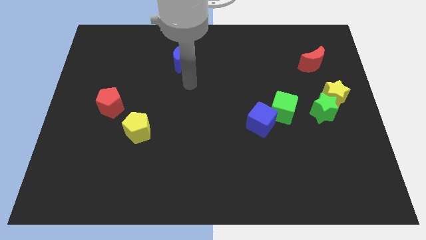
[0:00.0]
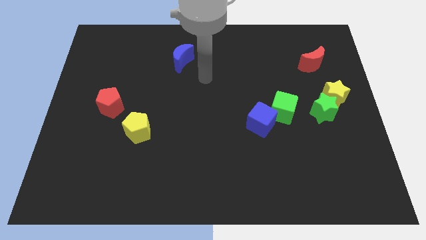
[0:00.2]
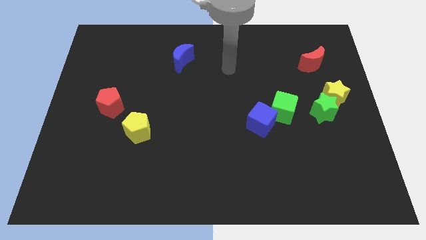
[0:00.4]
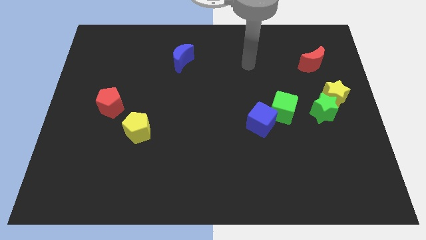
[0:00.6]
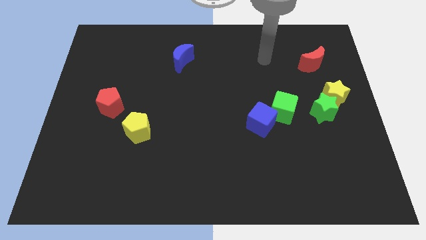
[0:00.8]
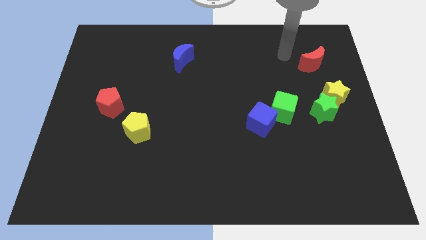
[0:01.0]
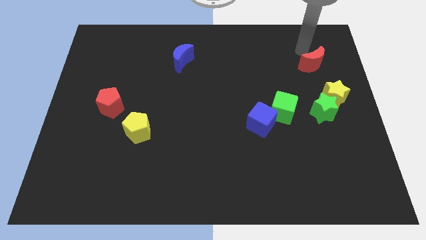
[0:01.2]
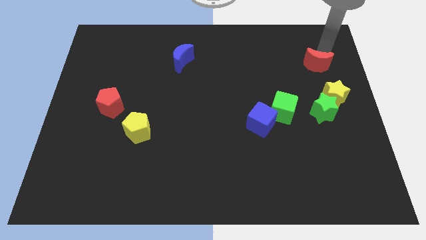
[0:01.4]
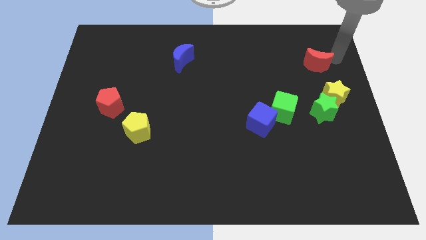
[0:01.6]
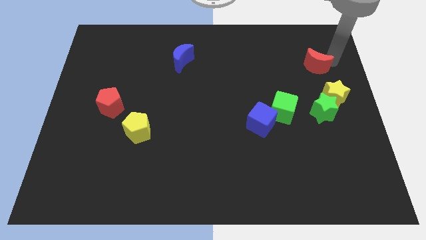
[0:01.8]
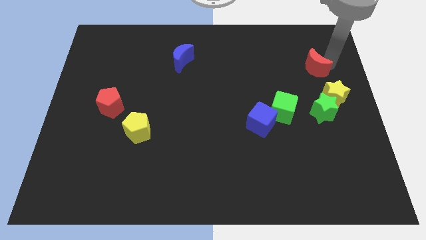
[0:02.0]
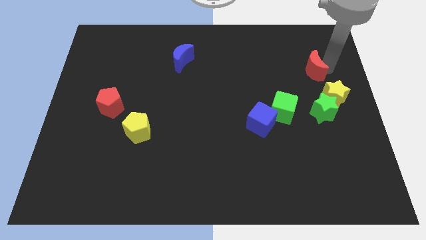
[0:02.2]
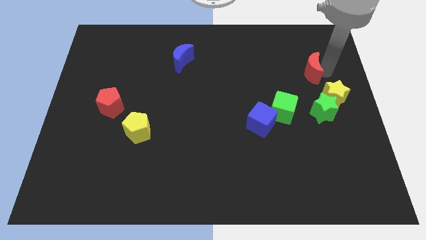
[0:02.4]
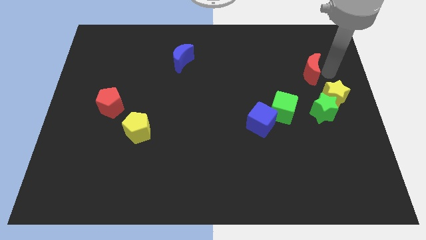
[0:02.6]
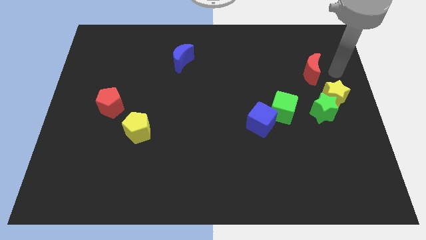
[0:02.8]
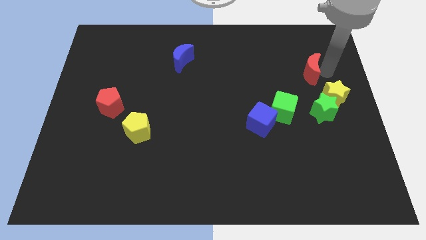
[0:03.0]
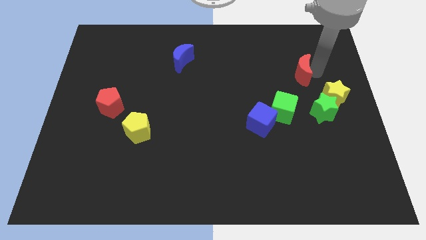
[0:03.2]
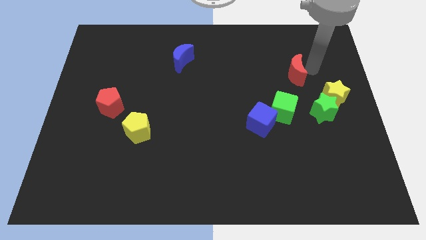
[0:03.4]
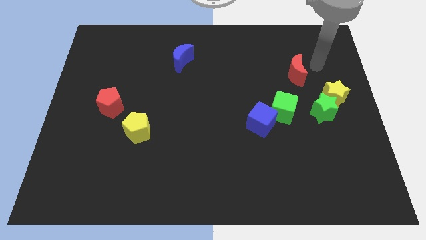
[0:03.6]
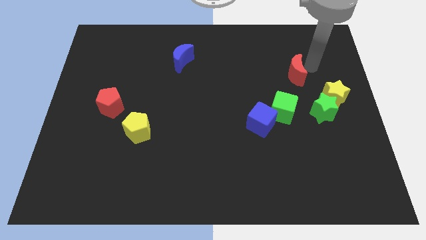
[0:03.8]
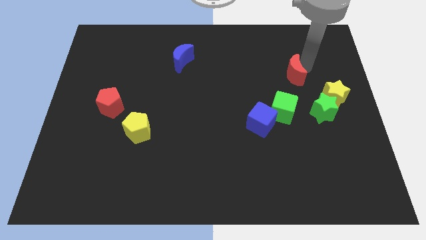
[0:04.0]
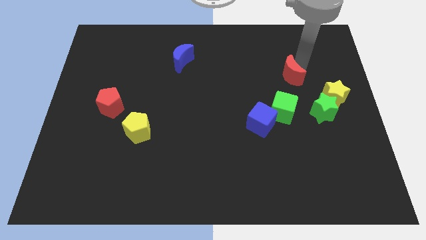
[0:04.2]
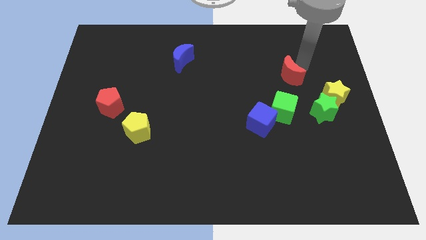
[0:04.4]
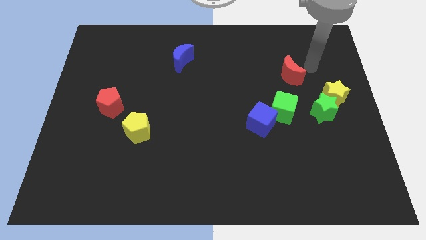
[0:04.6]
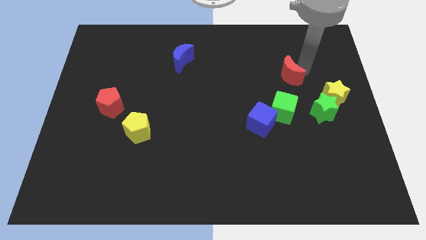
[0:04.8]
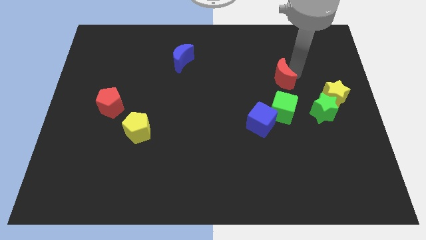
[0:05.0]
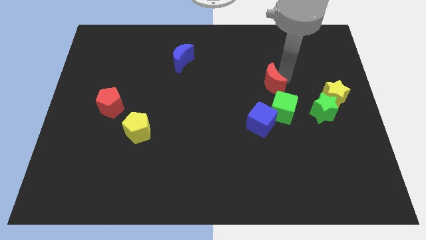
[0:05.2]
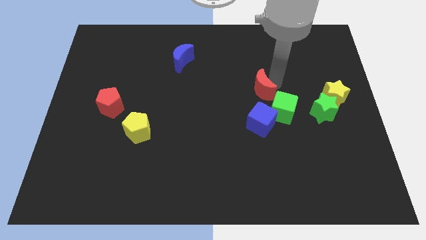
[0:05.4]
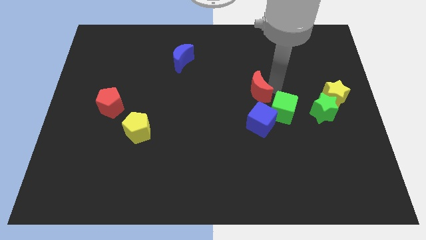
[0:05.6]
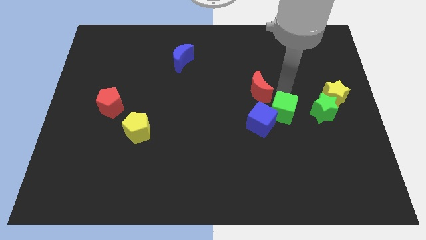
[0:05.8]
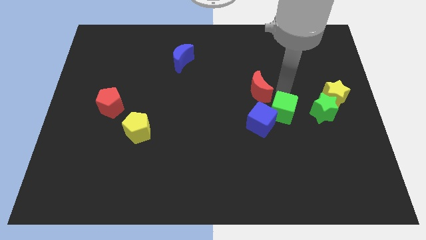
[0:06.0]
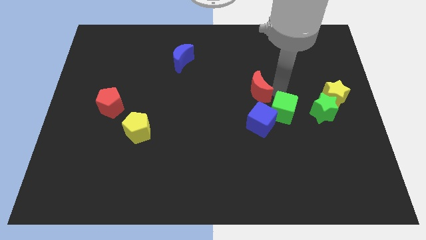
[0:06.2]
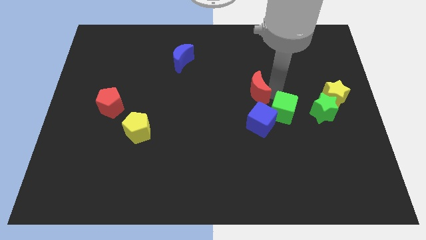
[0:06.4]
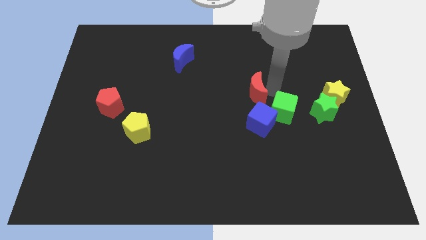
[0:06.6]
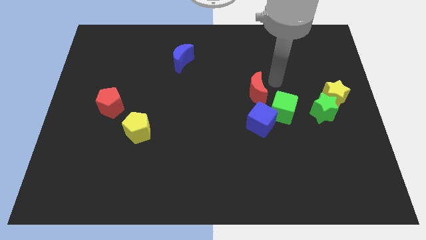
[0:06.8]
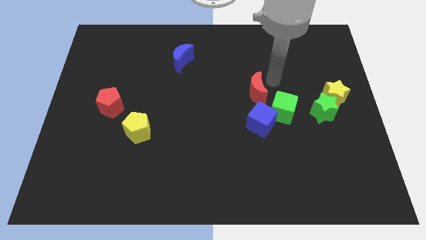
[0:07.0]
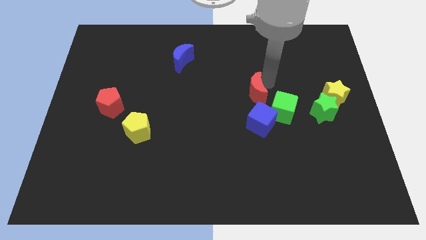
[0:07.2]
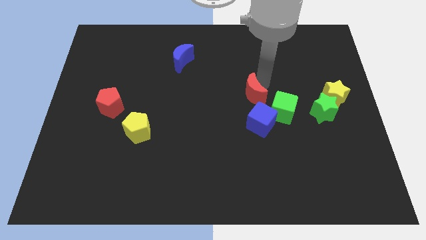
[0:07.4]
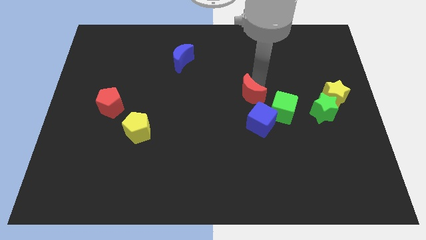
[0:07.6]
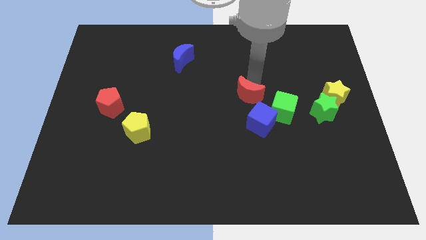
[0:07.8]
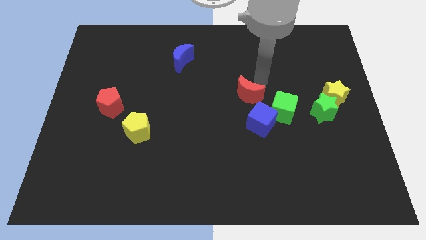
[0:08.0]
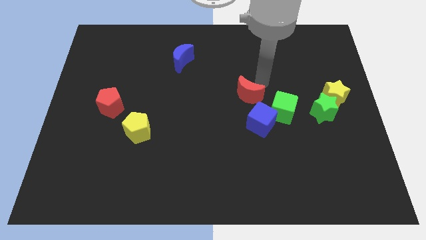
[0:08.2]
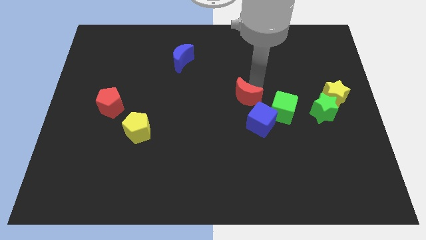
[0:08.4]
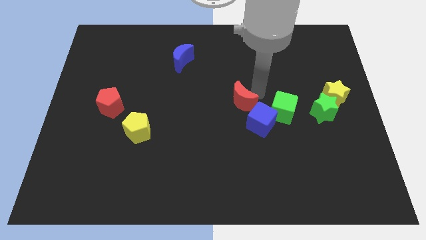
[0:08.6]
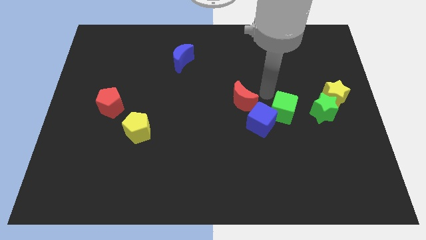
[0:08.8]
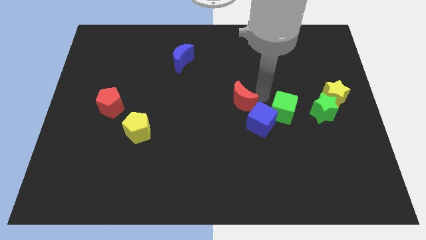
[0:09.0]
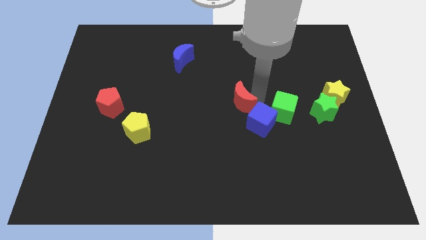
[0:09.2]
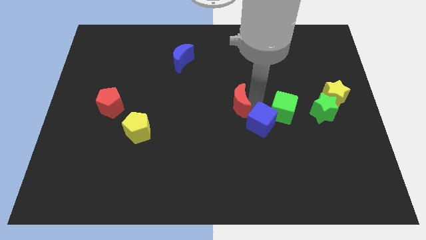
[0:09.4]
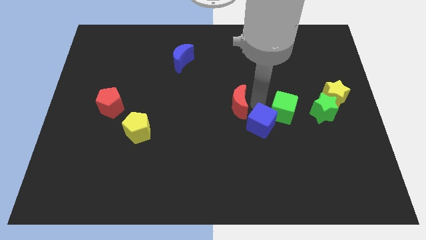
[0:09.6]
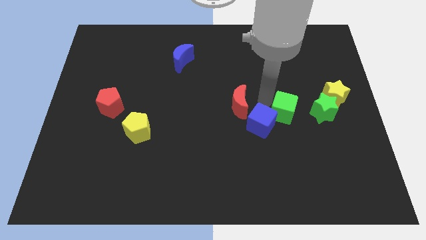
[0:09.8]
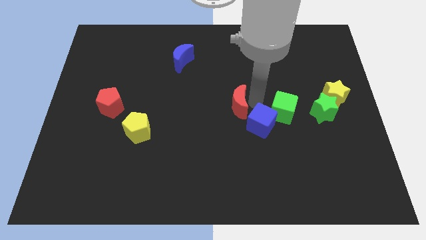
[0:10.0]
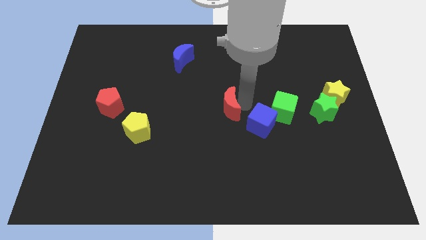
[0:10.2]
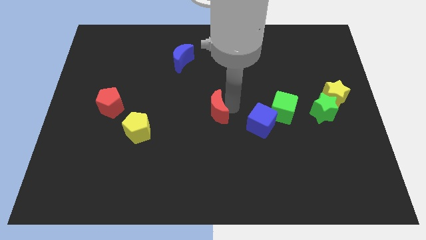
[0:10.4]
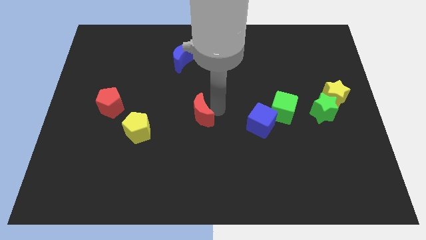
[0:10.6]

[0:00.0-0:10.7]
move the red moon to the right side of the yellow pentagon

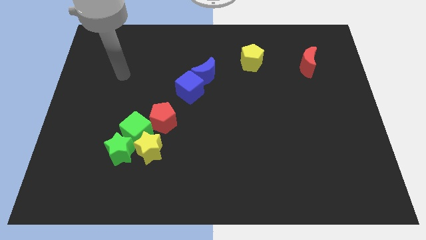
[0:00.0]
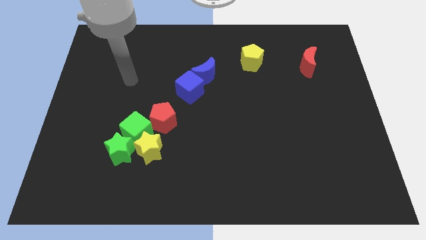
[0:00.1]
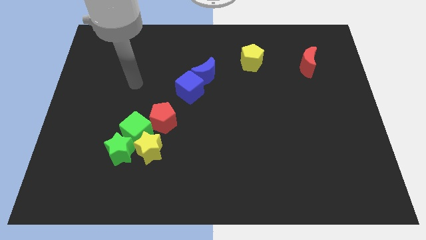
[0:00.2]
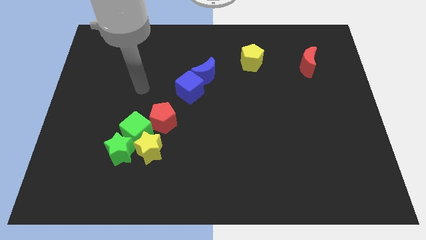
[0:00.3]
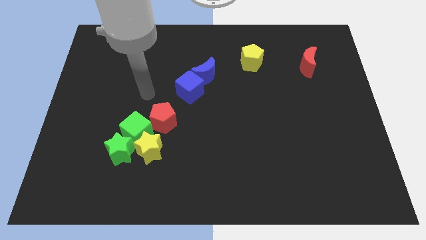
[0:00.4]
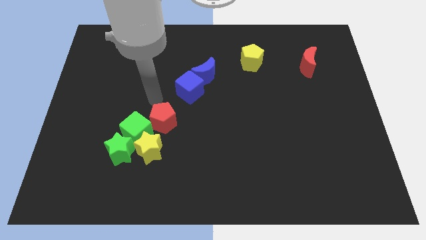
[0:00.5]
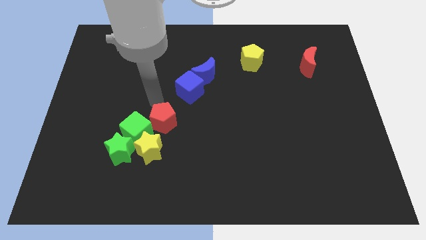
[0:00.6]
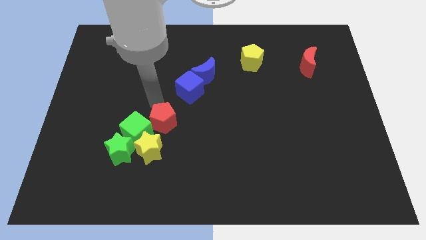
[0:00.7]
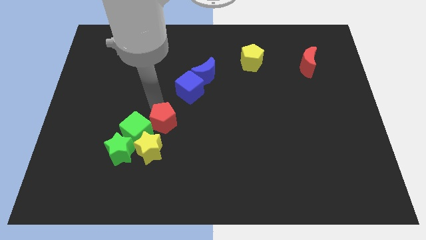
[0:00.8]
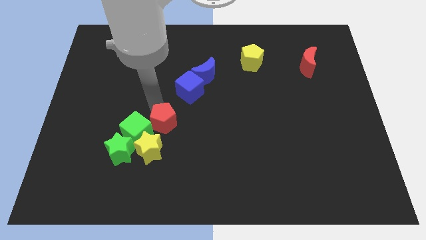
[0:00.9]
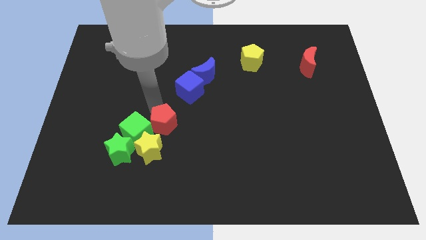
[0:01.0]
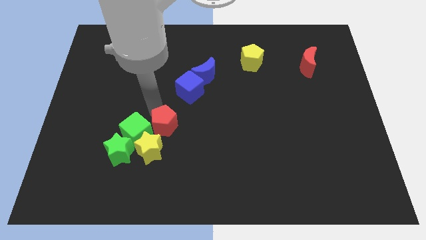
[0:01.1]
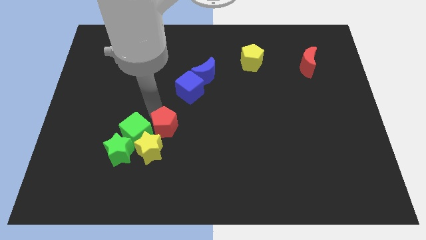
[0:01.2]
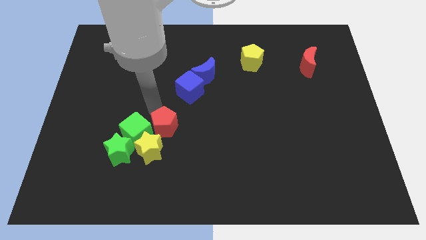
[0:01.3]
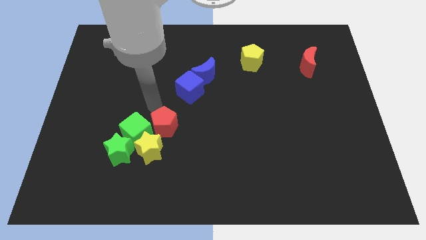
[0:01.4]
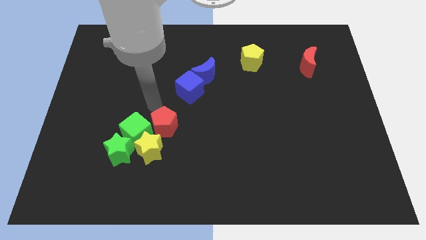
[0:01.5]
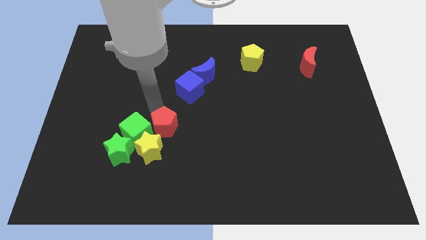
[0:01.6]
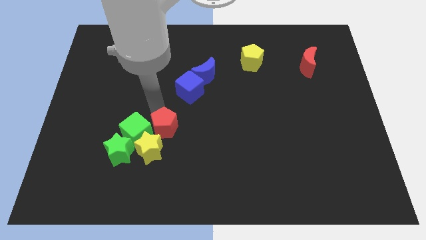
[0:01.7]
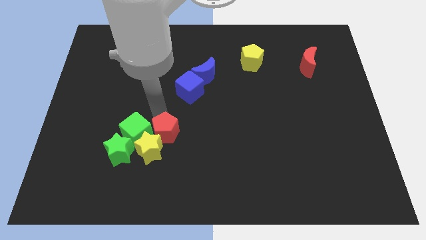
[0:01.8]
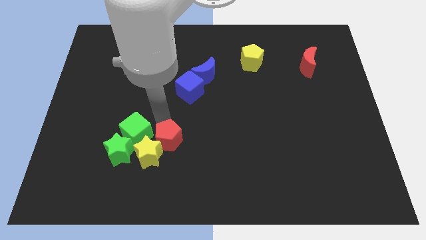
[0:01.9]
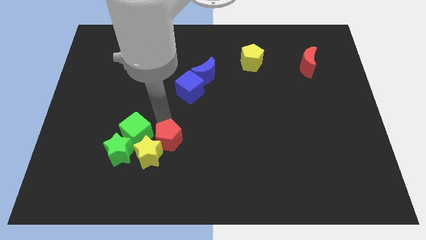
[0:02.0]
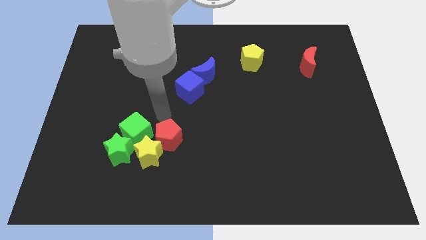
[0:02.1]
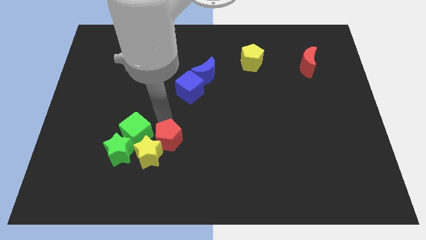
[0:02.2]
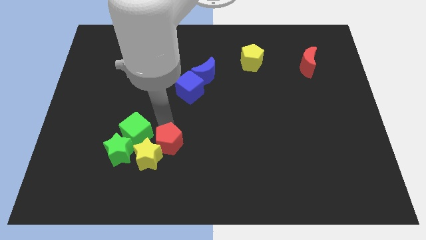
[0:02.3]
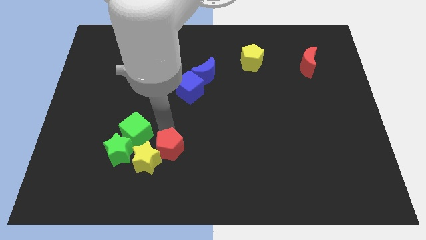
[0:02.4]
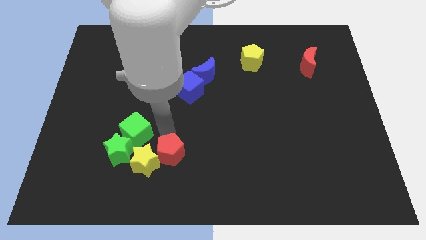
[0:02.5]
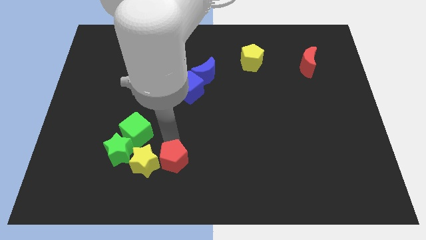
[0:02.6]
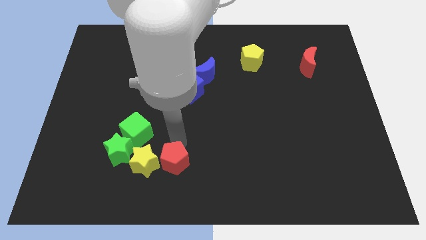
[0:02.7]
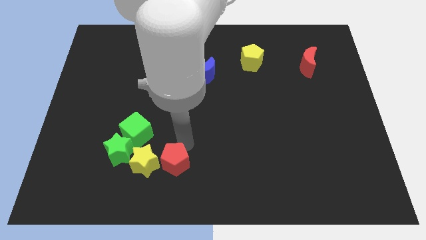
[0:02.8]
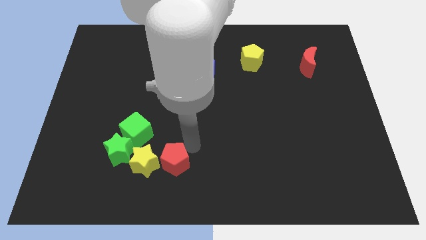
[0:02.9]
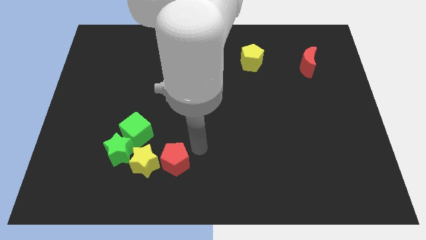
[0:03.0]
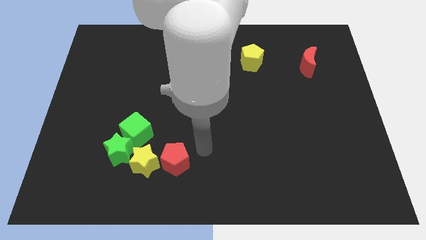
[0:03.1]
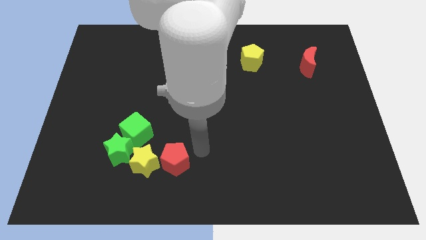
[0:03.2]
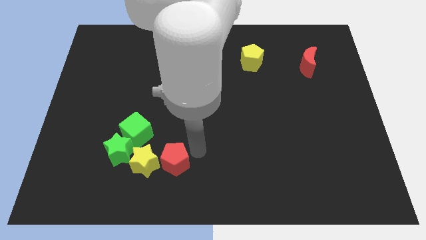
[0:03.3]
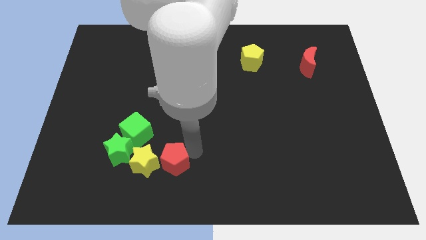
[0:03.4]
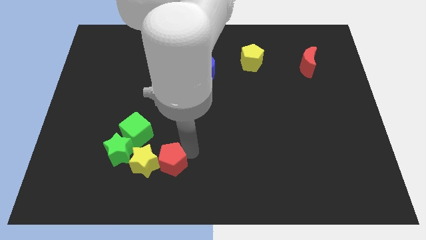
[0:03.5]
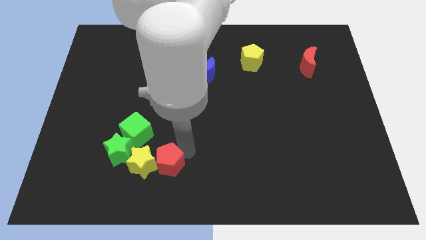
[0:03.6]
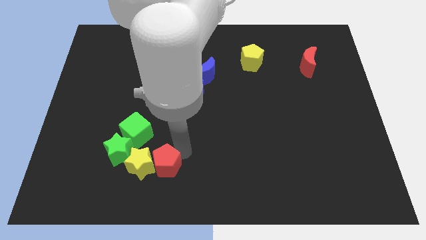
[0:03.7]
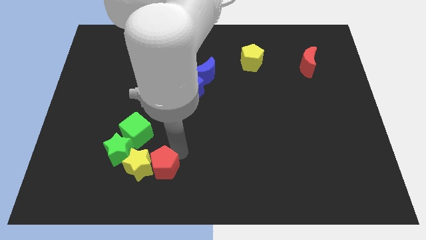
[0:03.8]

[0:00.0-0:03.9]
move the red pentagon diagonally down and to the right of the green star
